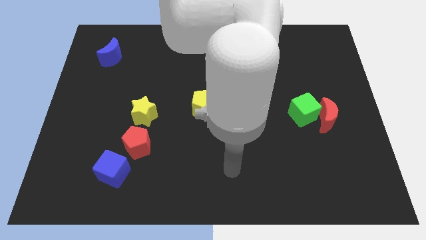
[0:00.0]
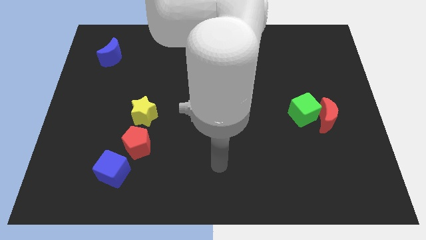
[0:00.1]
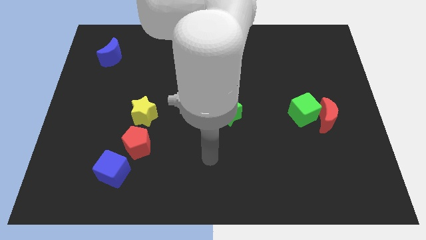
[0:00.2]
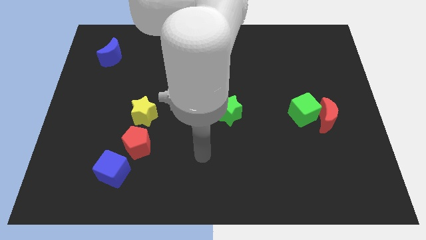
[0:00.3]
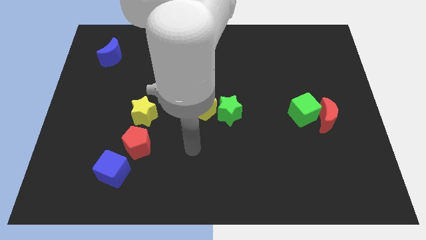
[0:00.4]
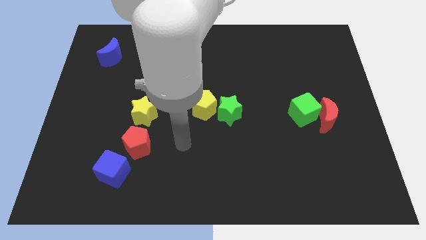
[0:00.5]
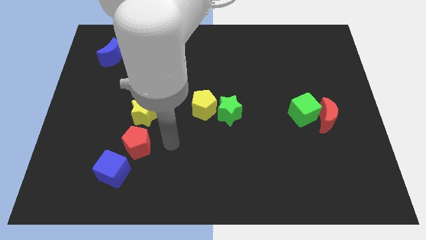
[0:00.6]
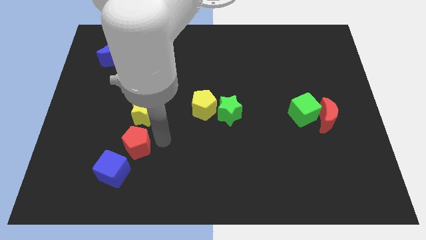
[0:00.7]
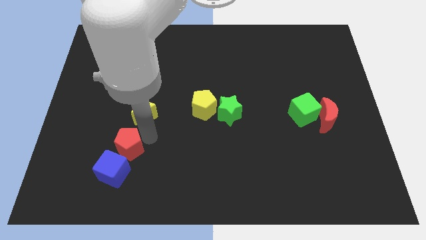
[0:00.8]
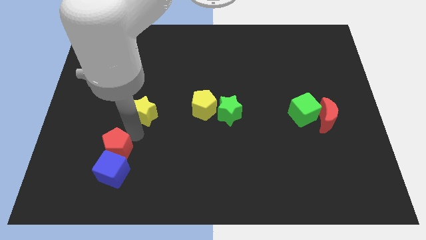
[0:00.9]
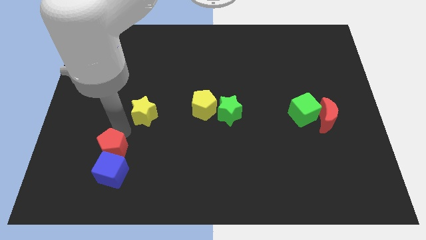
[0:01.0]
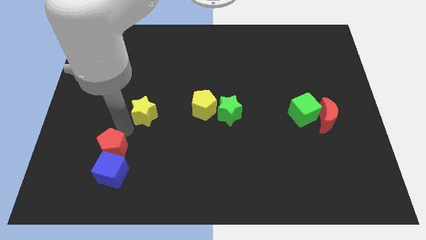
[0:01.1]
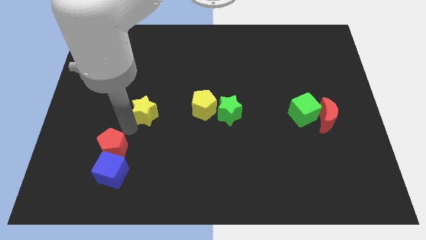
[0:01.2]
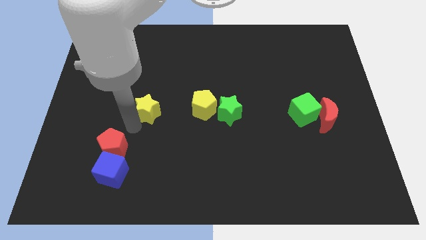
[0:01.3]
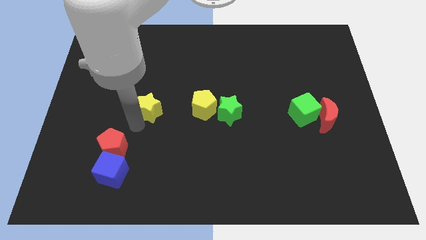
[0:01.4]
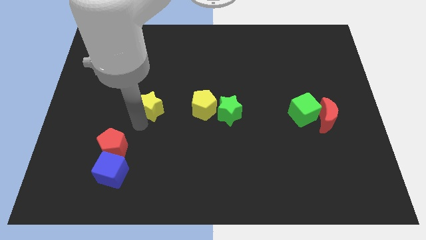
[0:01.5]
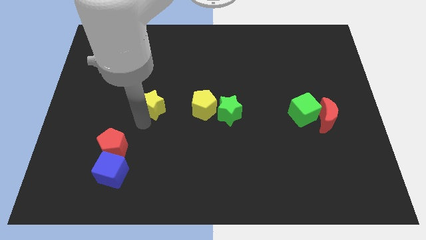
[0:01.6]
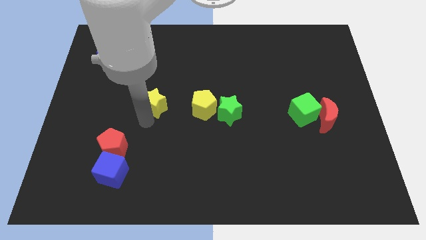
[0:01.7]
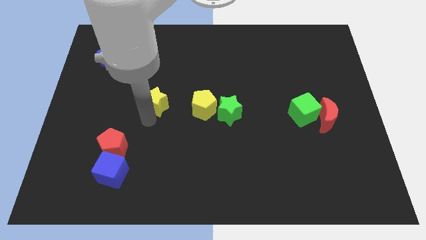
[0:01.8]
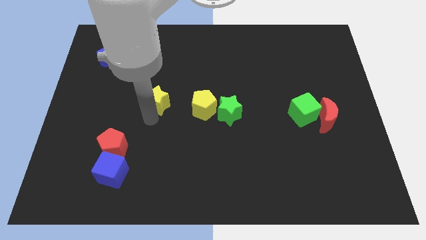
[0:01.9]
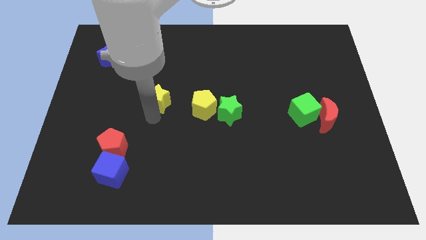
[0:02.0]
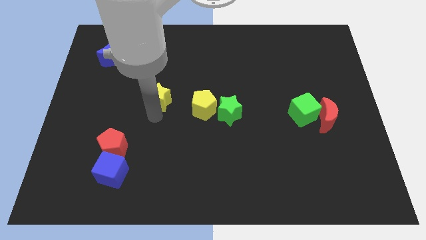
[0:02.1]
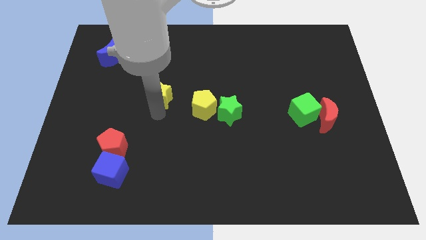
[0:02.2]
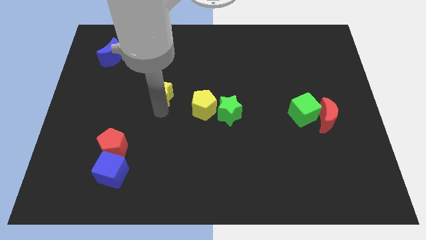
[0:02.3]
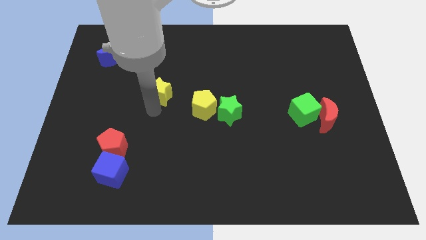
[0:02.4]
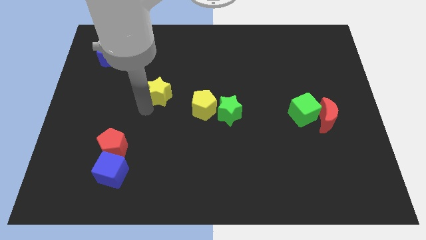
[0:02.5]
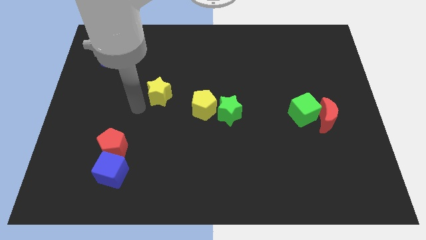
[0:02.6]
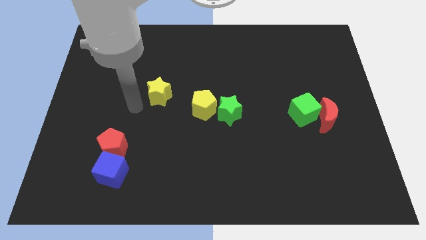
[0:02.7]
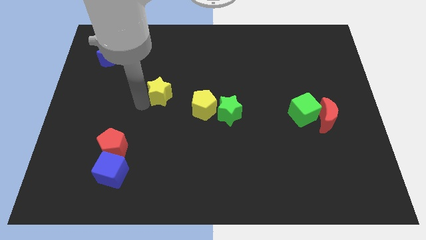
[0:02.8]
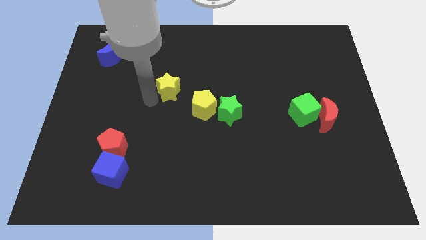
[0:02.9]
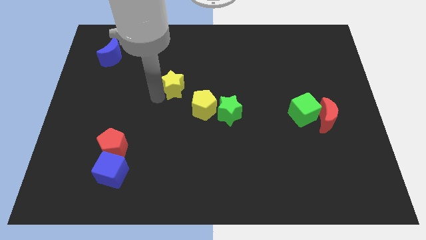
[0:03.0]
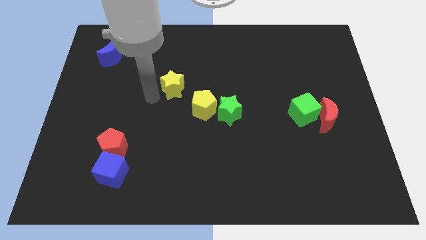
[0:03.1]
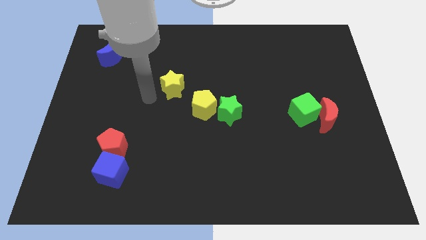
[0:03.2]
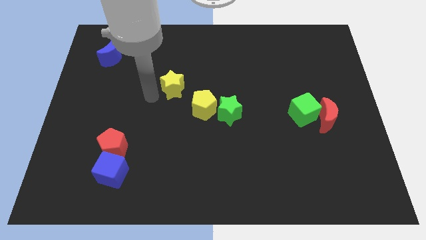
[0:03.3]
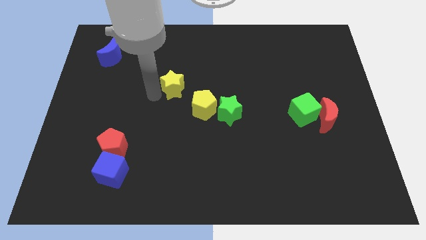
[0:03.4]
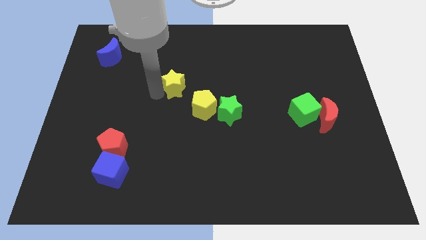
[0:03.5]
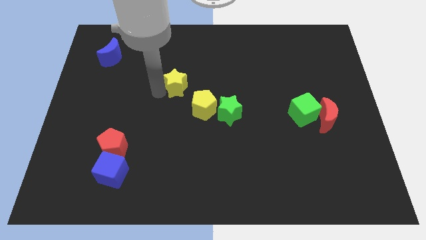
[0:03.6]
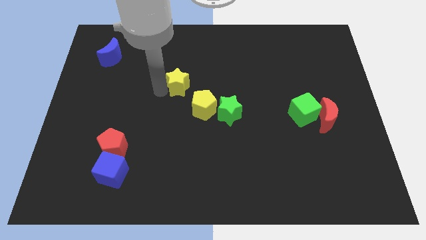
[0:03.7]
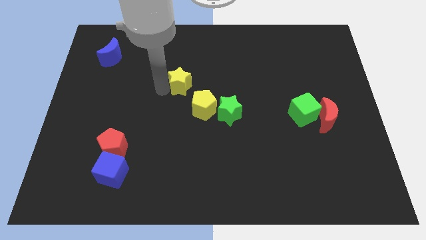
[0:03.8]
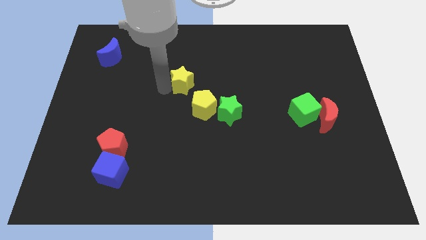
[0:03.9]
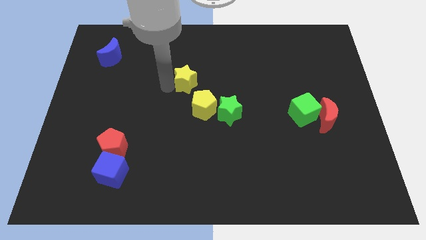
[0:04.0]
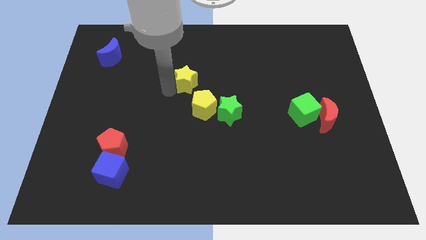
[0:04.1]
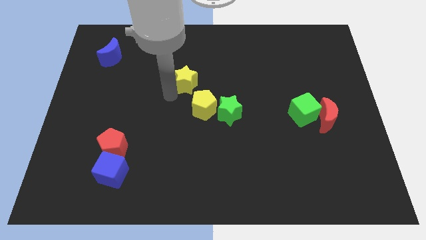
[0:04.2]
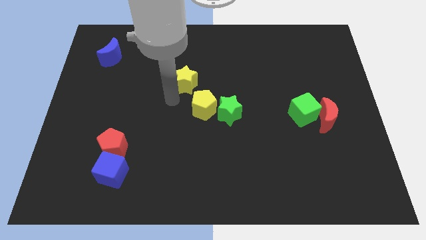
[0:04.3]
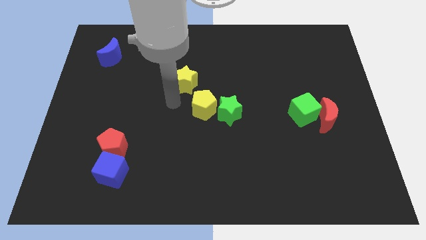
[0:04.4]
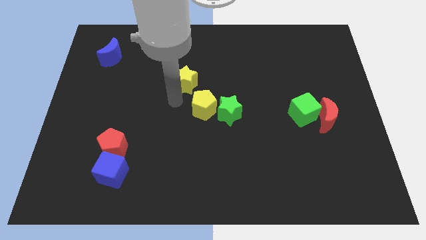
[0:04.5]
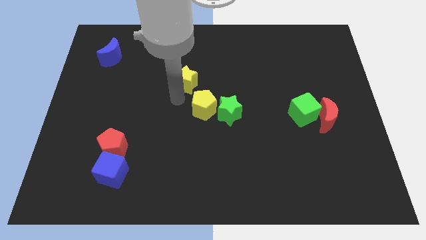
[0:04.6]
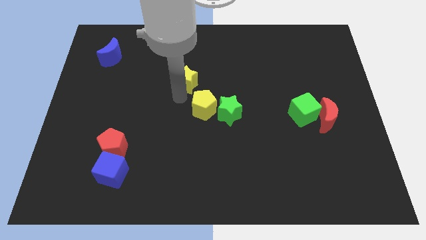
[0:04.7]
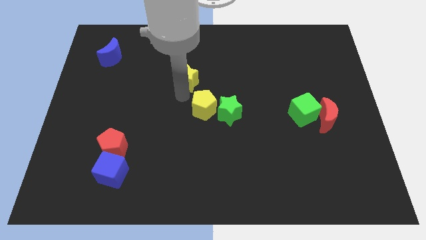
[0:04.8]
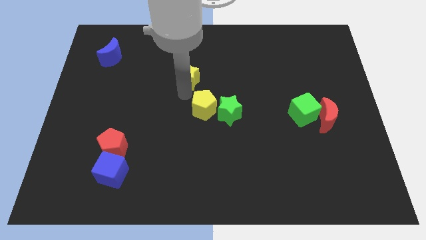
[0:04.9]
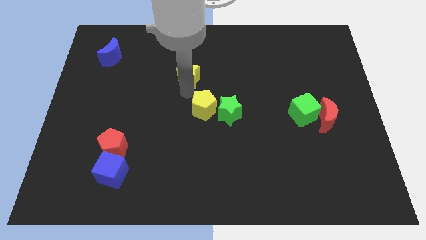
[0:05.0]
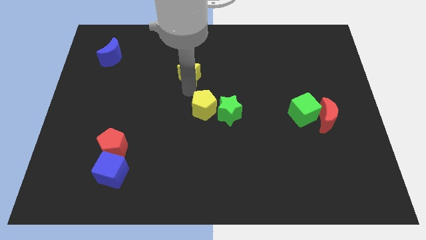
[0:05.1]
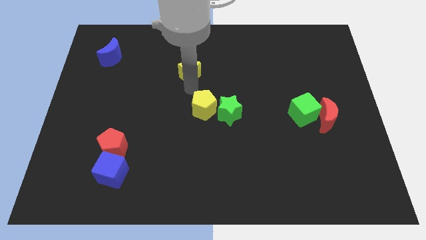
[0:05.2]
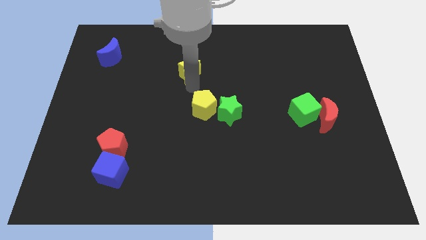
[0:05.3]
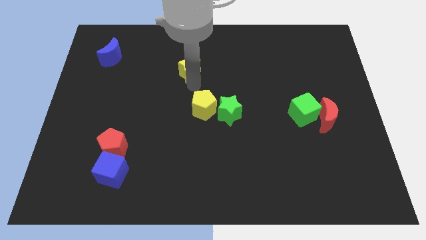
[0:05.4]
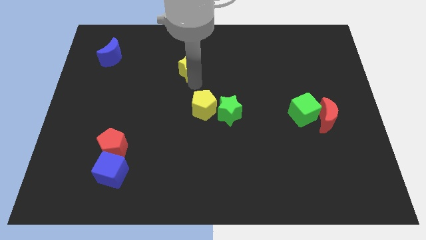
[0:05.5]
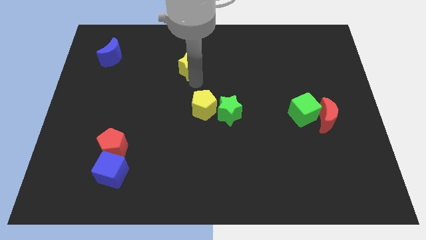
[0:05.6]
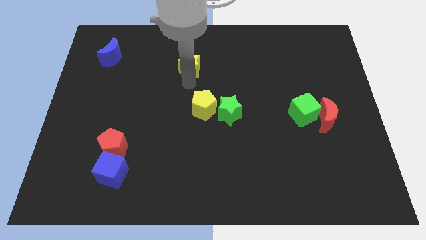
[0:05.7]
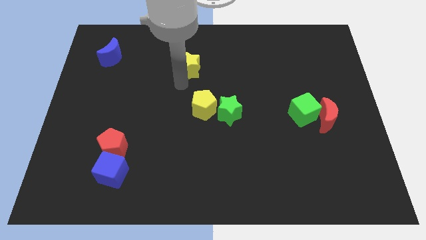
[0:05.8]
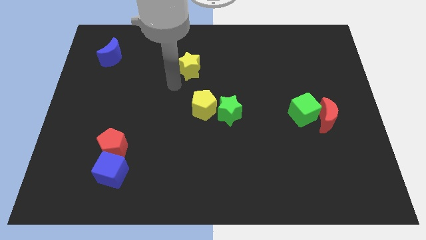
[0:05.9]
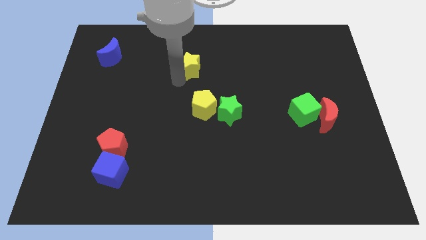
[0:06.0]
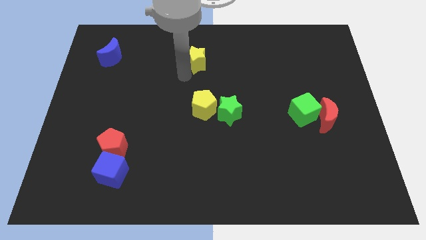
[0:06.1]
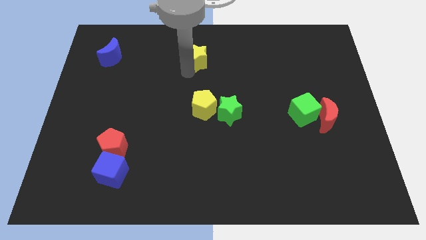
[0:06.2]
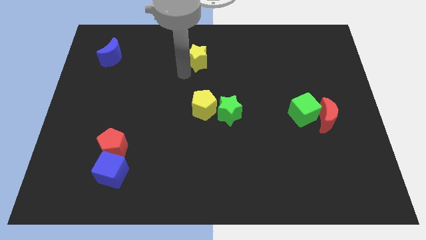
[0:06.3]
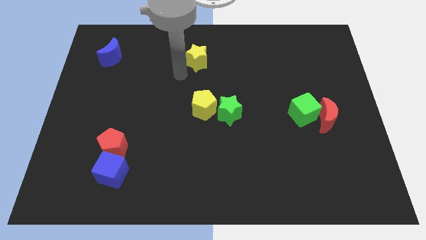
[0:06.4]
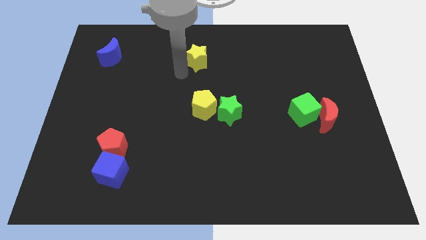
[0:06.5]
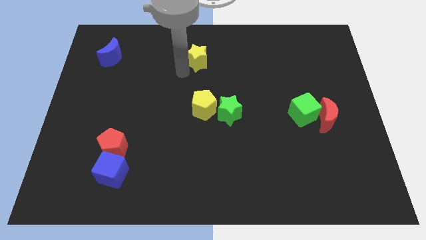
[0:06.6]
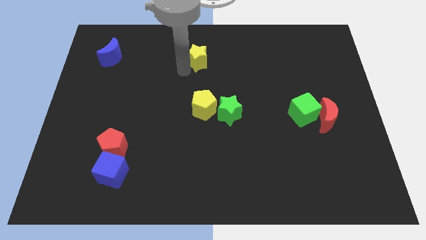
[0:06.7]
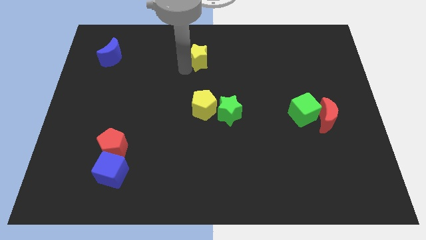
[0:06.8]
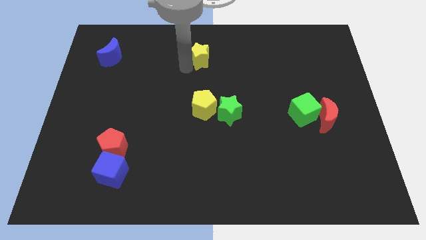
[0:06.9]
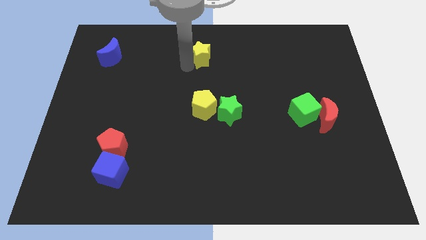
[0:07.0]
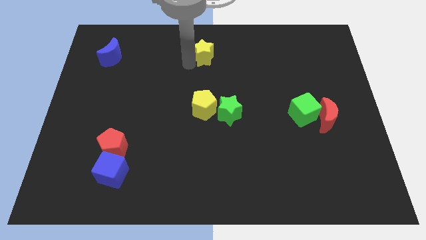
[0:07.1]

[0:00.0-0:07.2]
move the yellow star to the top side
